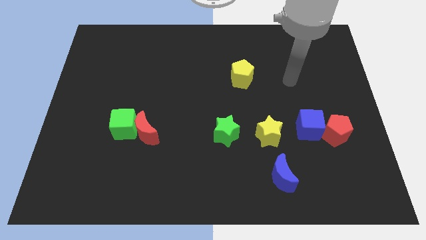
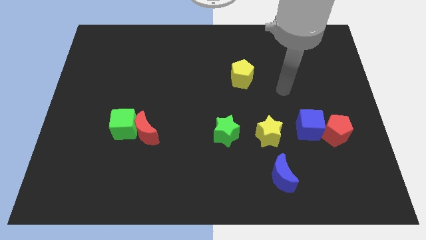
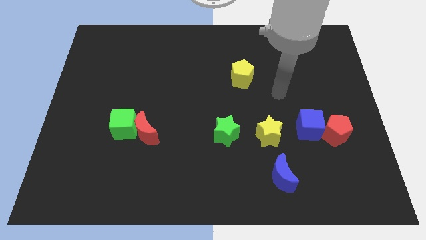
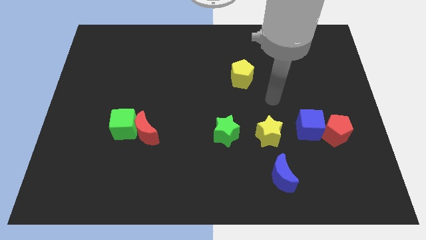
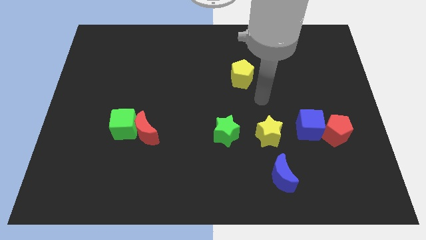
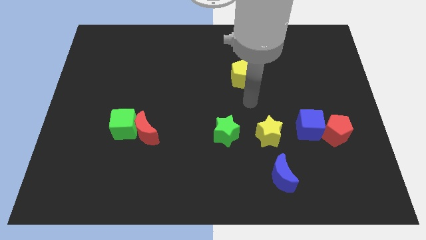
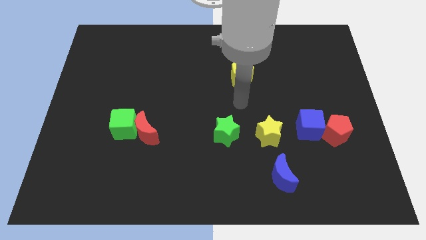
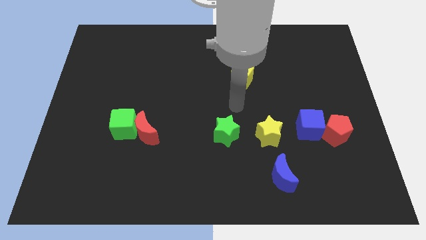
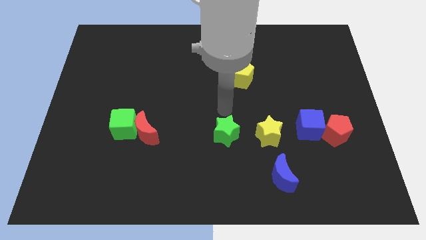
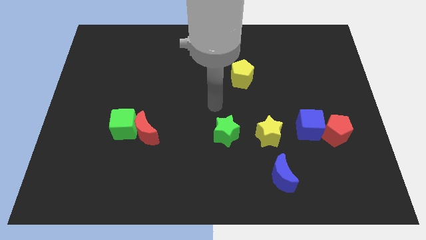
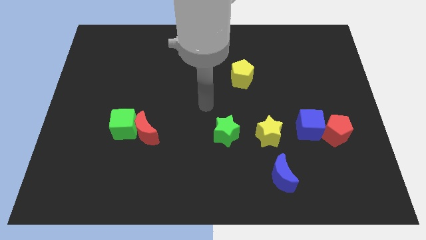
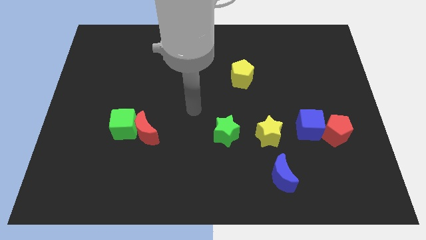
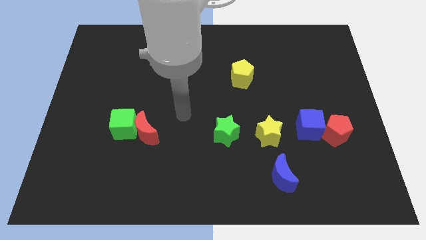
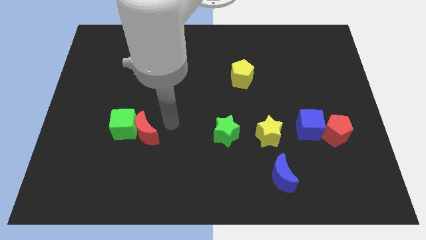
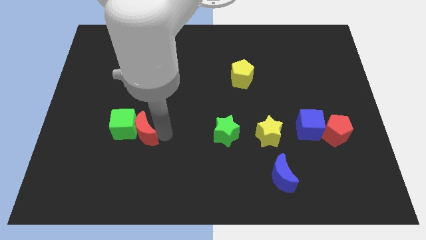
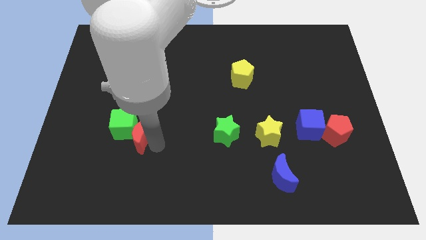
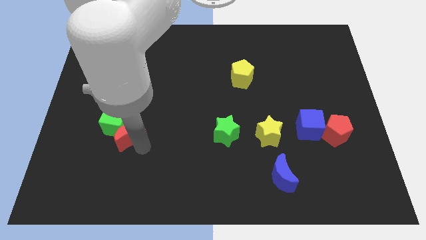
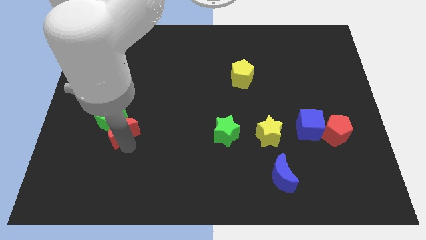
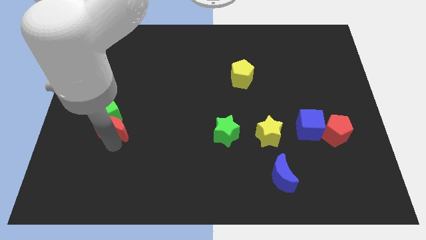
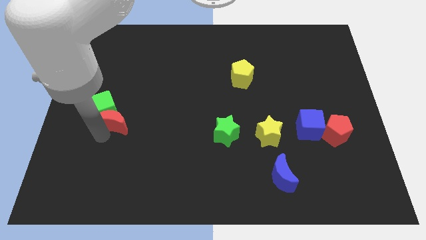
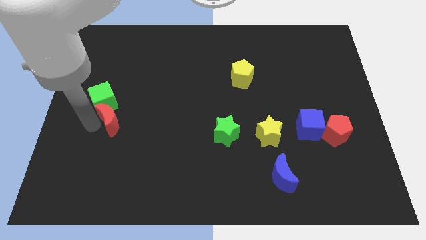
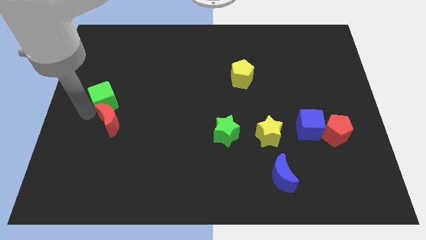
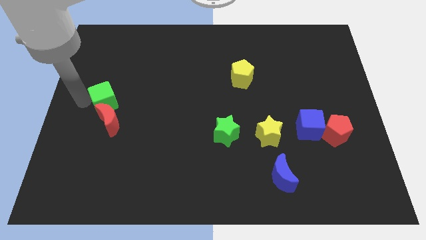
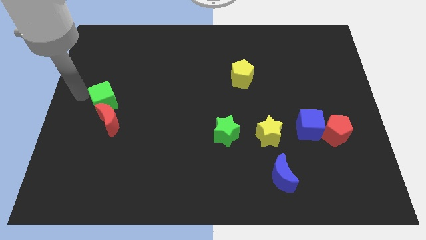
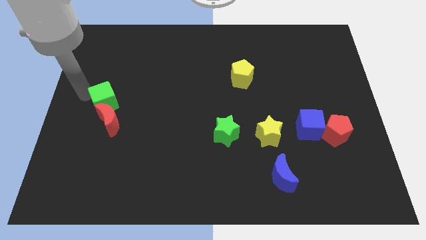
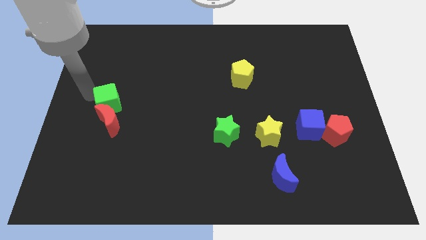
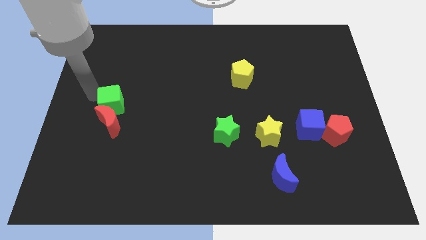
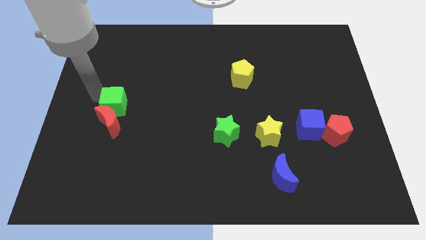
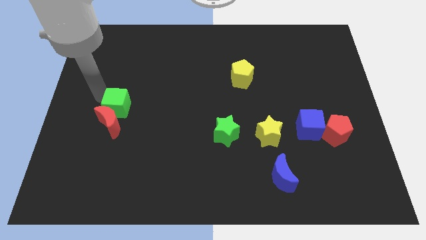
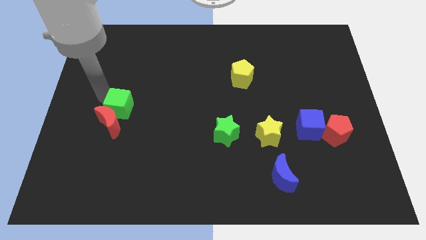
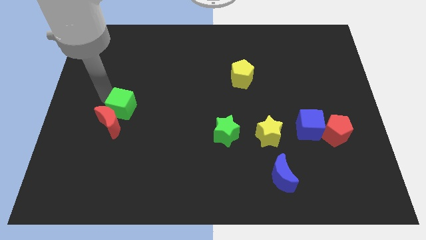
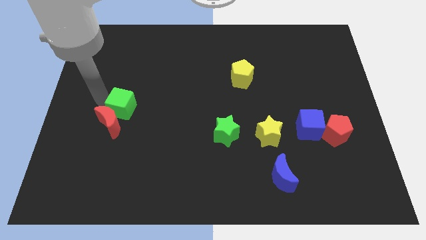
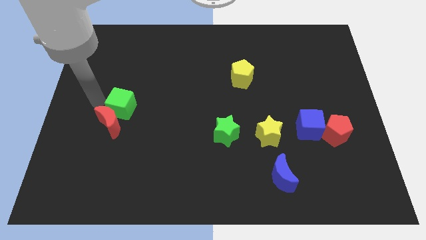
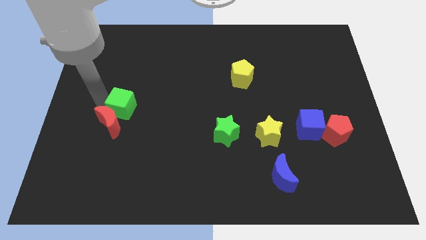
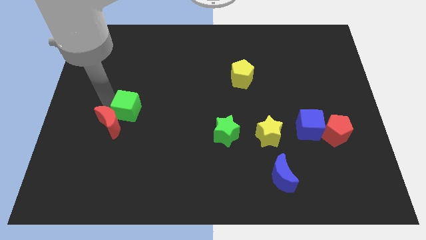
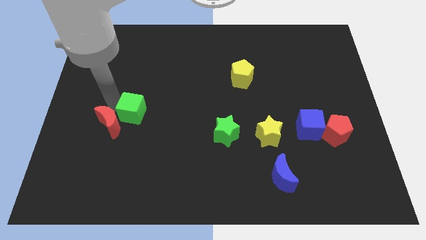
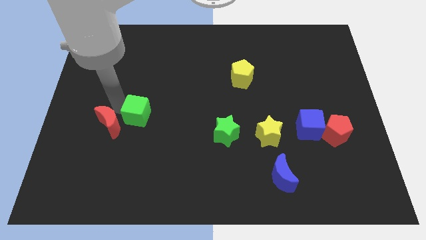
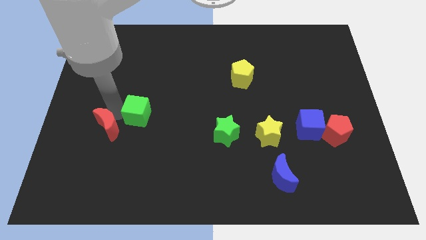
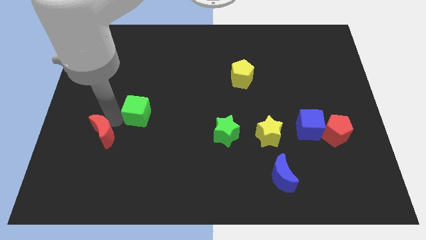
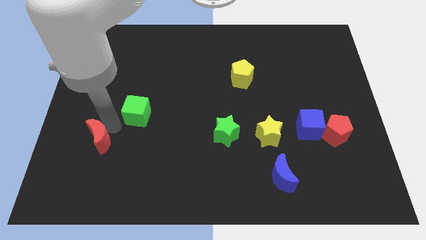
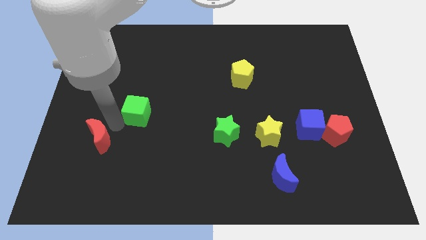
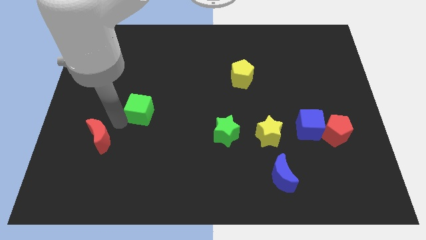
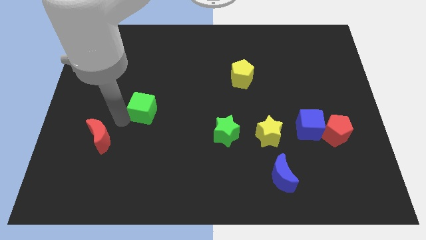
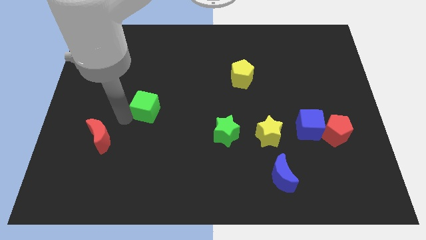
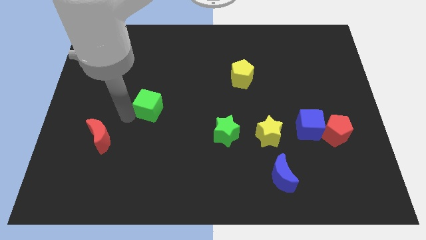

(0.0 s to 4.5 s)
slide the green cube slightly upwards and to the right

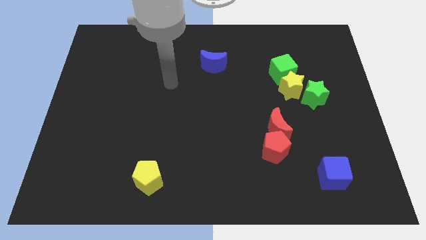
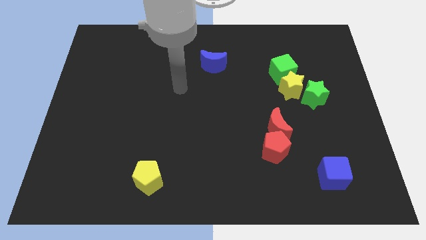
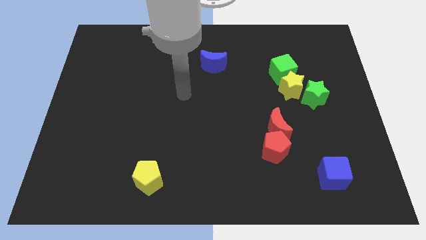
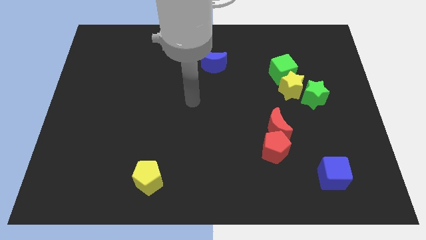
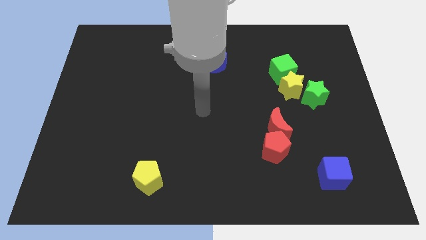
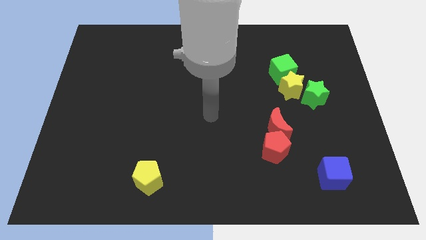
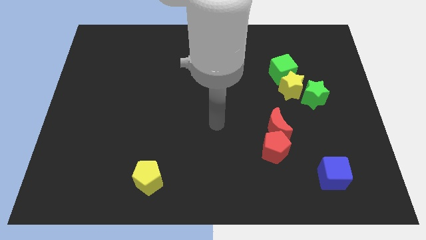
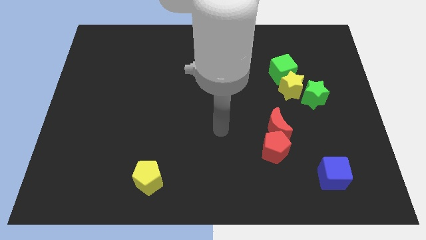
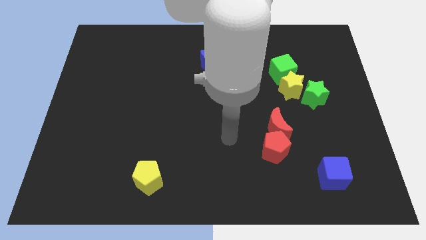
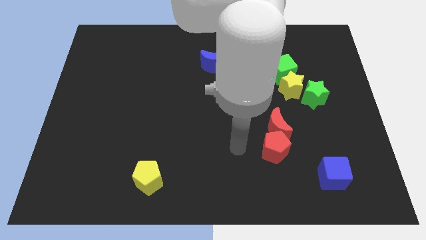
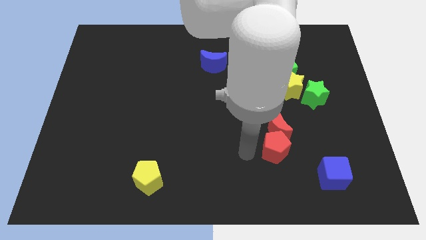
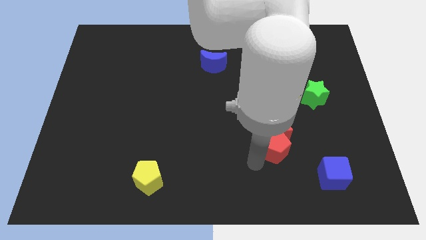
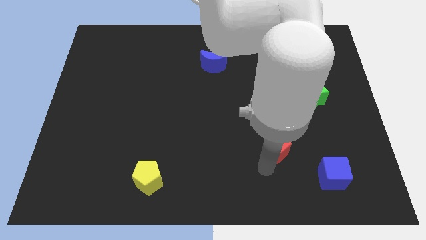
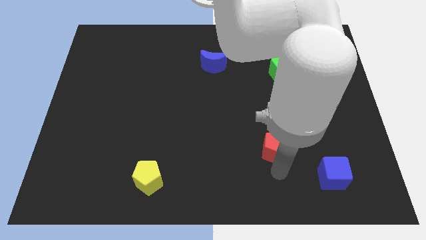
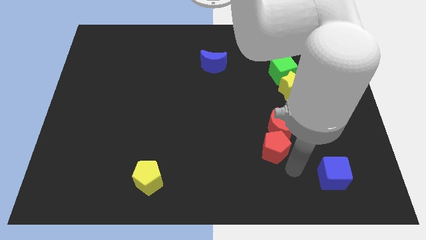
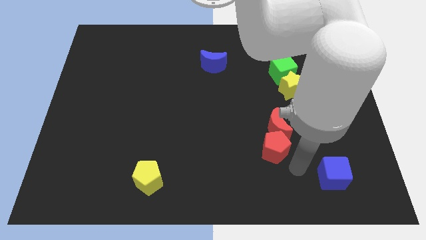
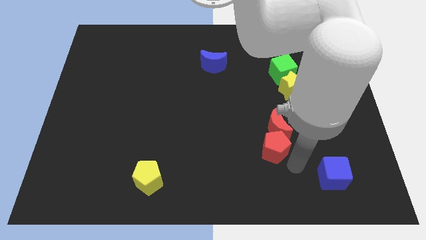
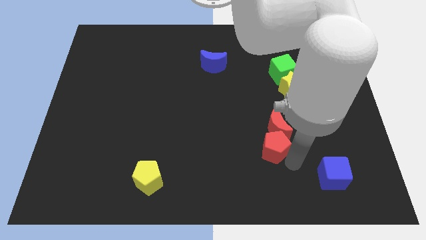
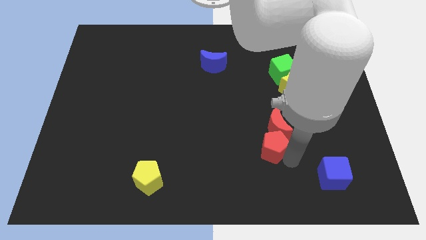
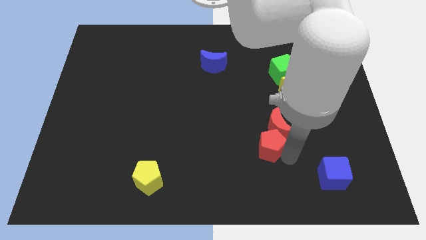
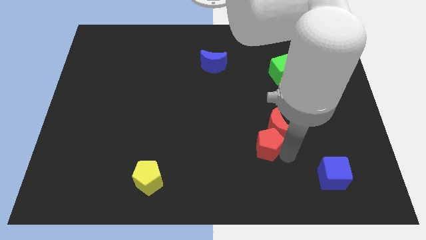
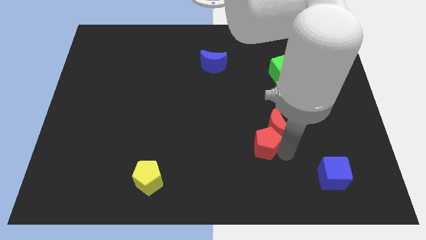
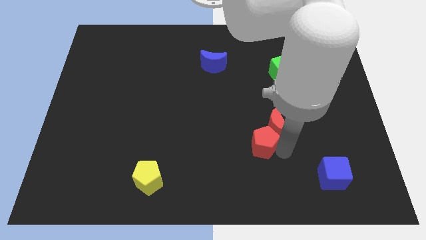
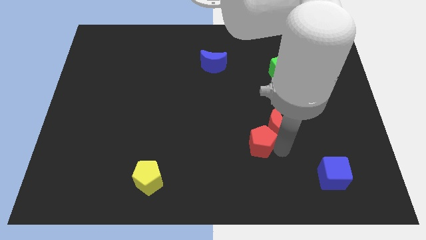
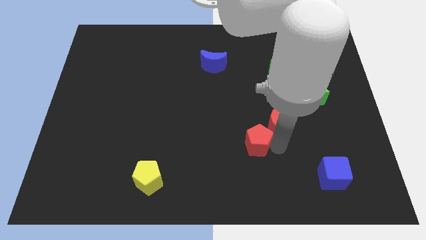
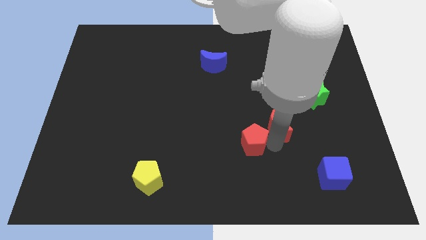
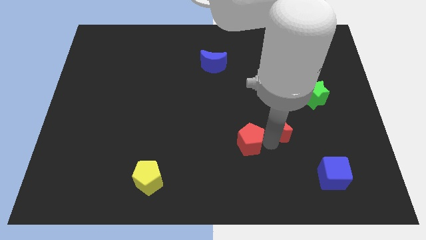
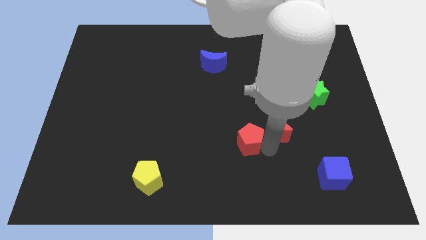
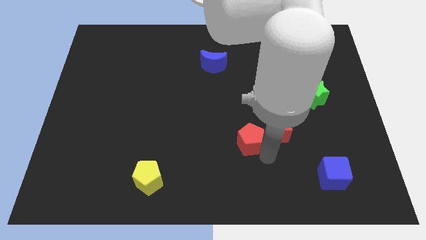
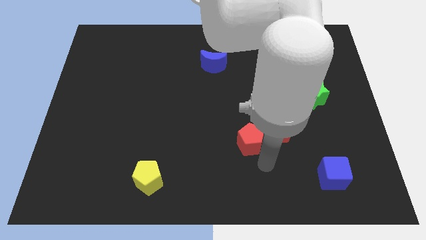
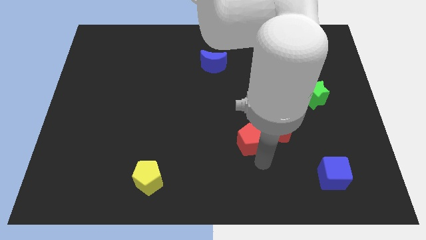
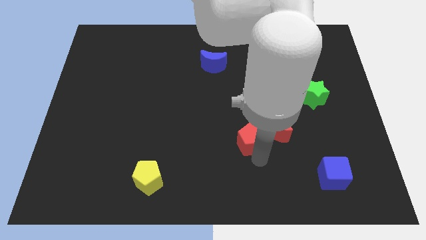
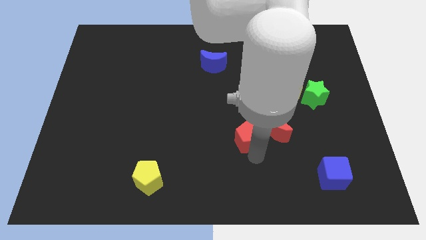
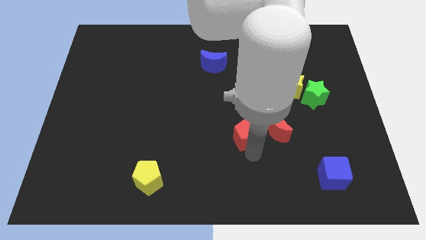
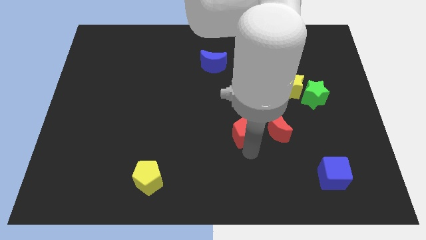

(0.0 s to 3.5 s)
move the red pentagon diagonally upwards and left a little bit

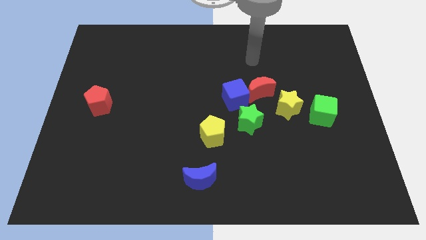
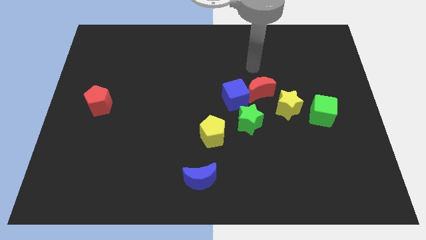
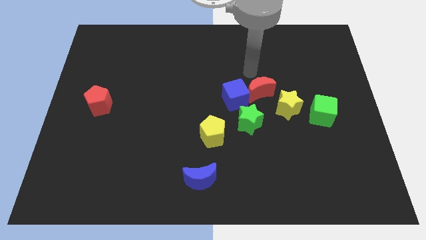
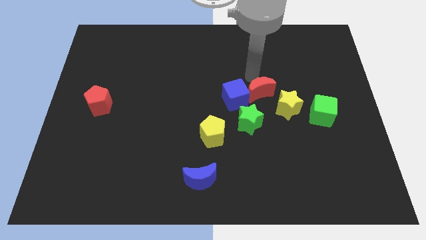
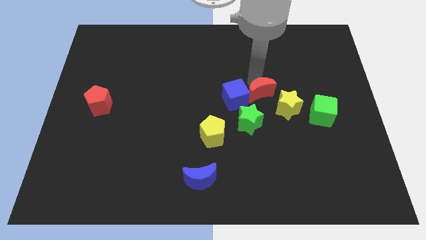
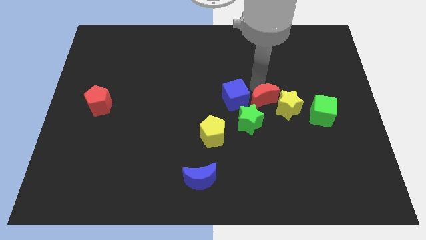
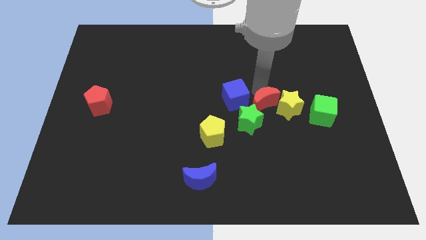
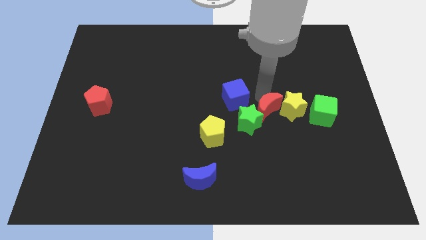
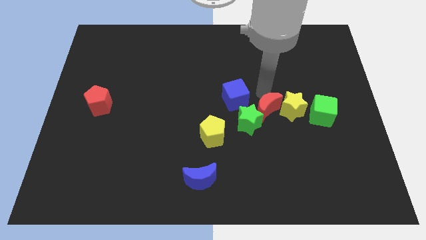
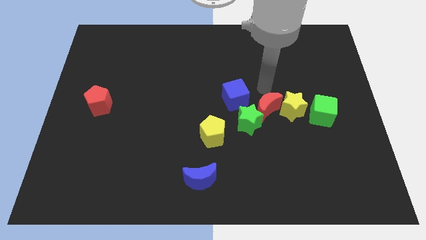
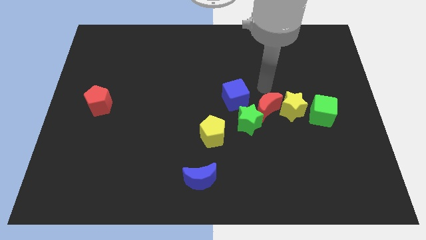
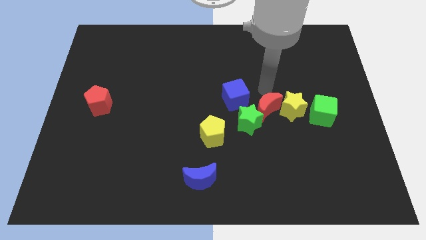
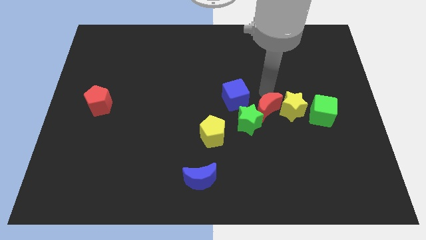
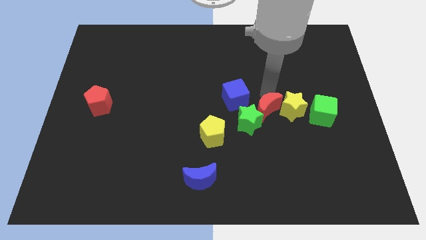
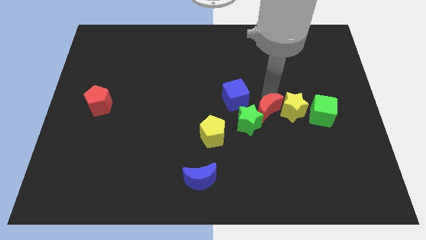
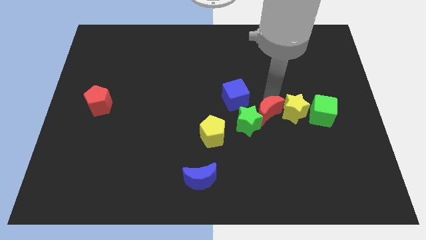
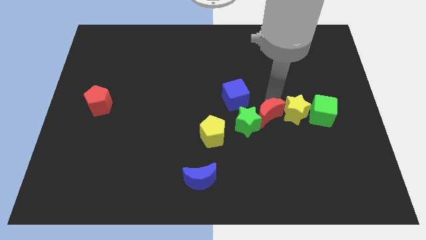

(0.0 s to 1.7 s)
push the red moon downwards a little bit
